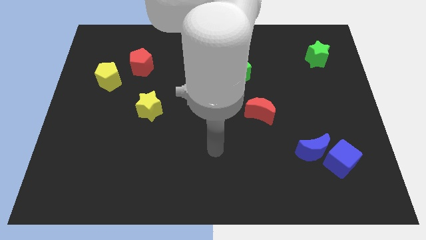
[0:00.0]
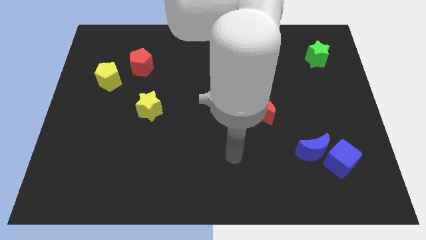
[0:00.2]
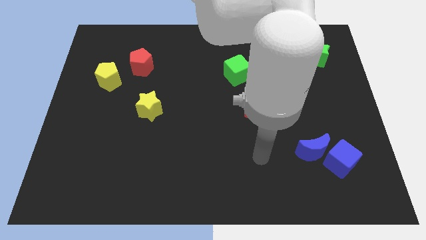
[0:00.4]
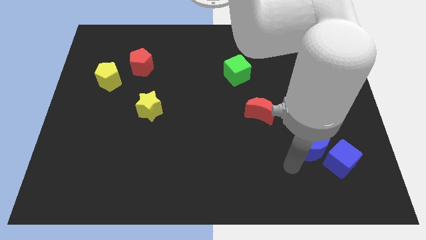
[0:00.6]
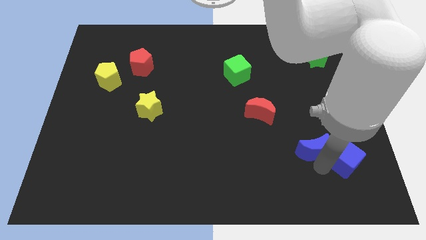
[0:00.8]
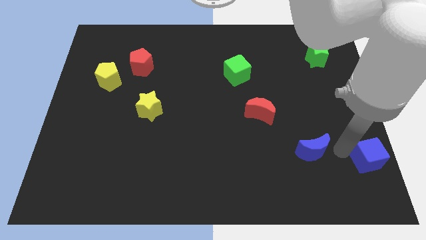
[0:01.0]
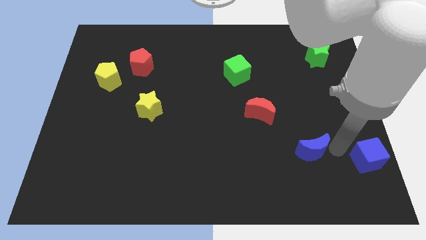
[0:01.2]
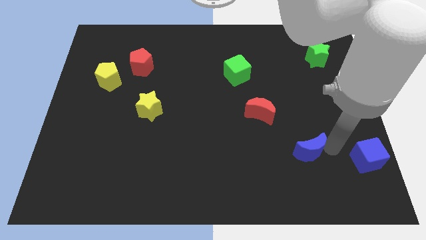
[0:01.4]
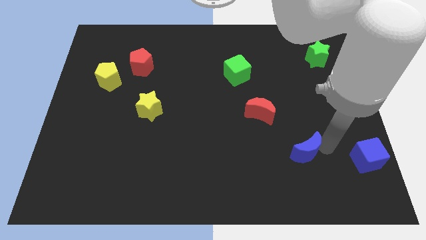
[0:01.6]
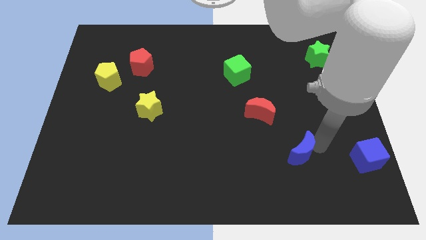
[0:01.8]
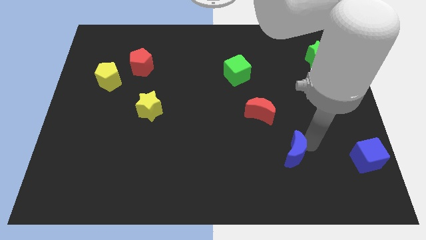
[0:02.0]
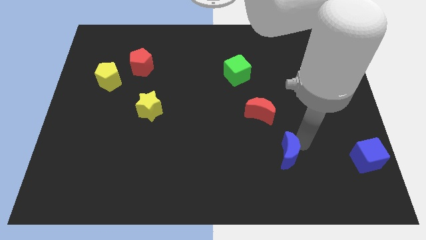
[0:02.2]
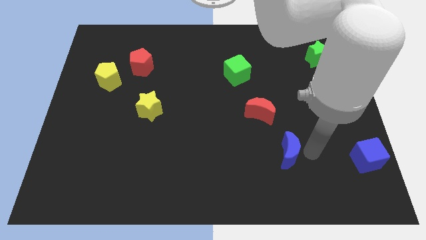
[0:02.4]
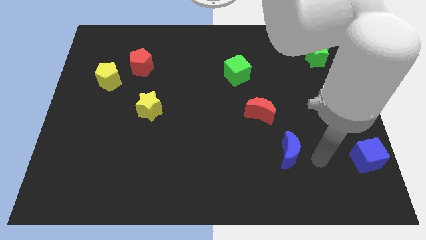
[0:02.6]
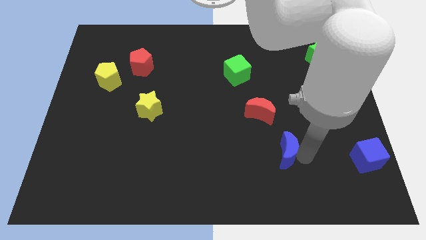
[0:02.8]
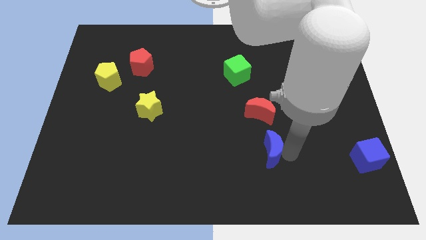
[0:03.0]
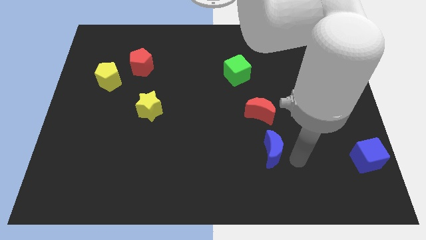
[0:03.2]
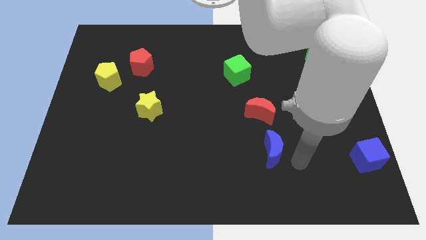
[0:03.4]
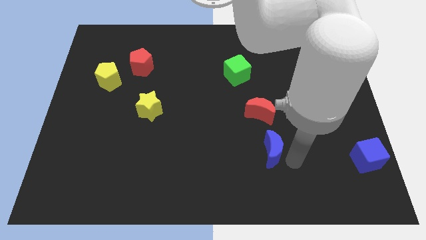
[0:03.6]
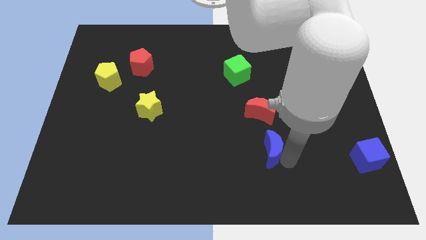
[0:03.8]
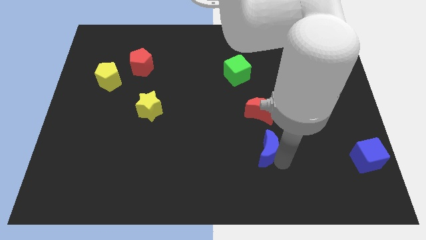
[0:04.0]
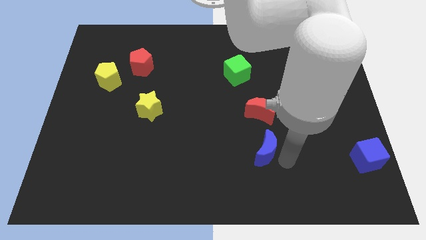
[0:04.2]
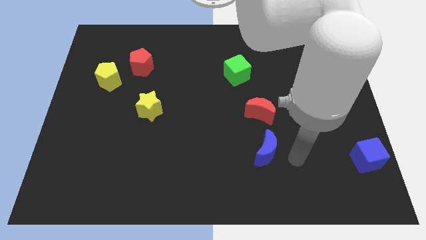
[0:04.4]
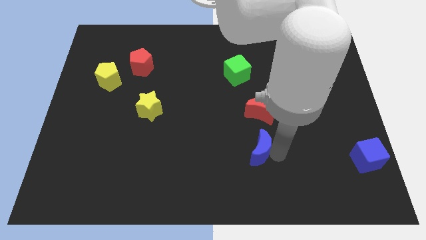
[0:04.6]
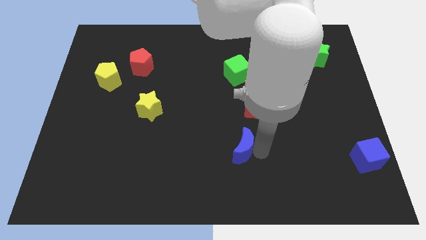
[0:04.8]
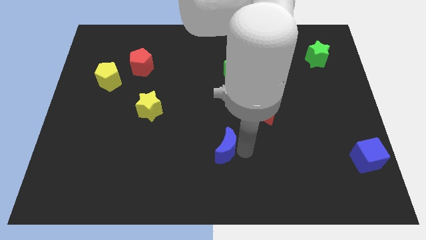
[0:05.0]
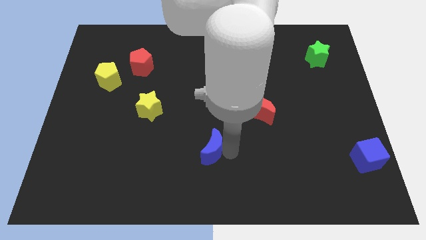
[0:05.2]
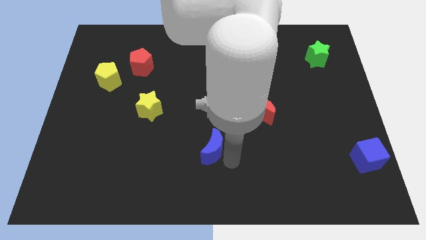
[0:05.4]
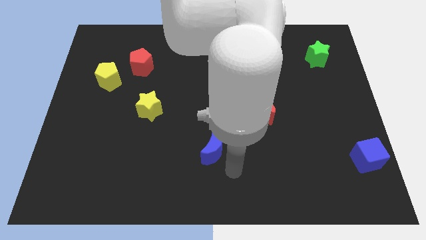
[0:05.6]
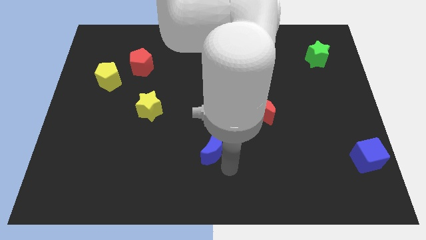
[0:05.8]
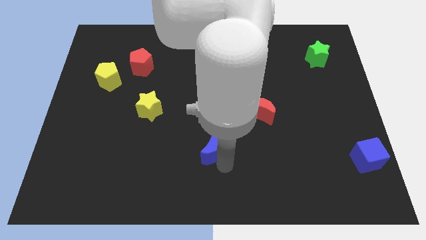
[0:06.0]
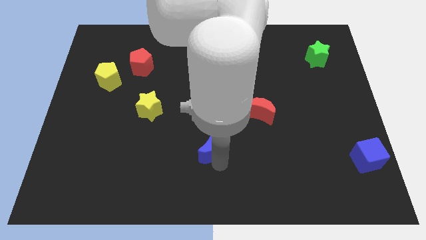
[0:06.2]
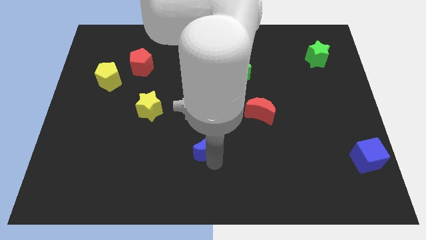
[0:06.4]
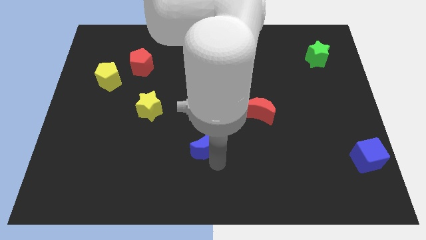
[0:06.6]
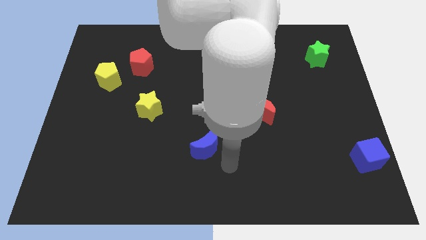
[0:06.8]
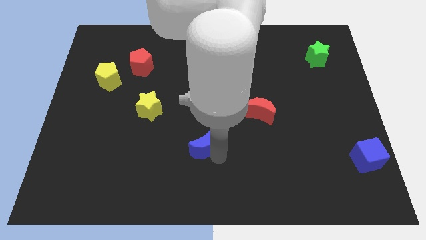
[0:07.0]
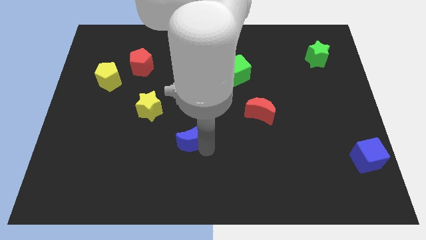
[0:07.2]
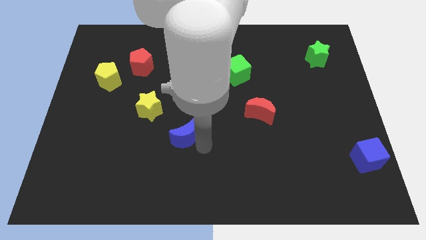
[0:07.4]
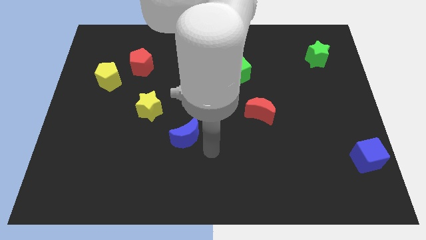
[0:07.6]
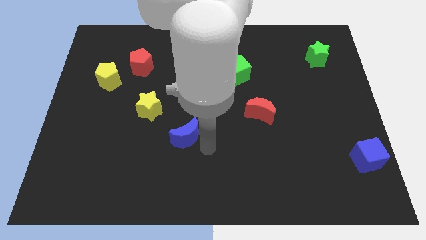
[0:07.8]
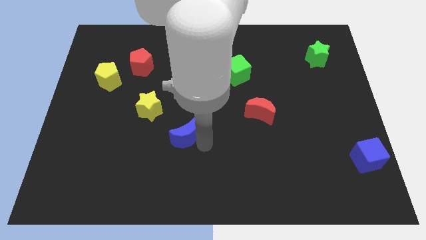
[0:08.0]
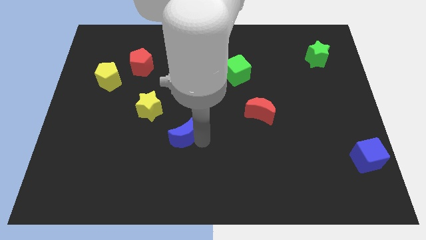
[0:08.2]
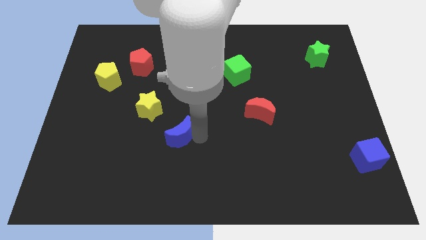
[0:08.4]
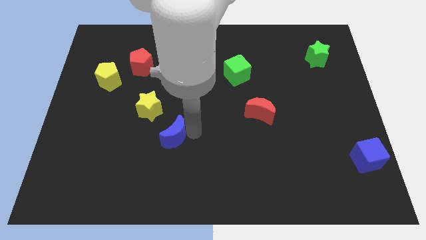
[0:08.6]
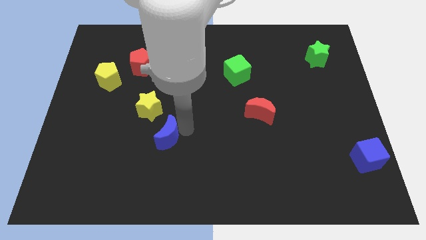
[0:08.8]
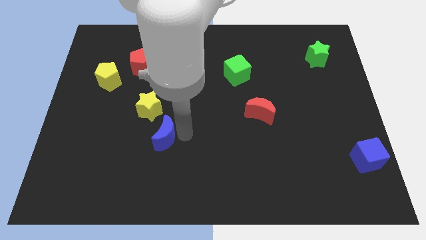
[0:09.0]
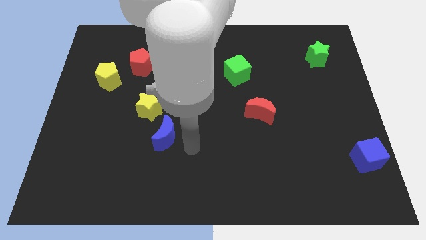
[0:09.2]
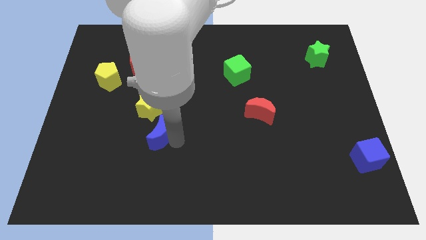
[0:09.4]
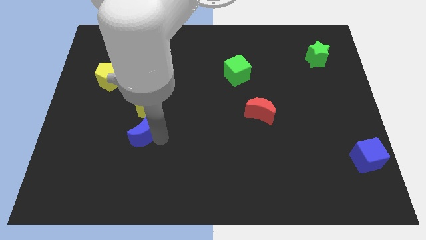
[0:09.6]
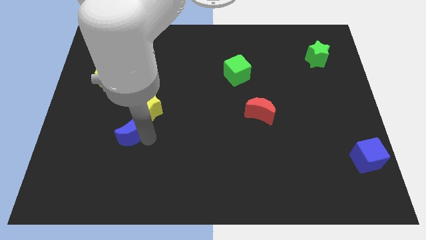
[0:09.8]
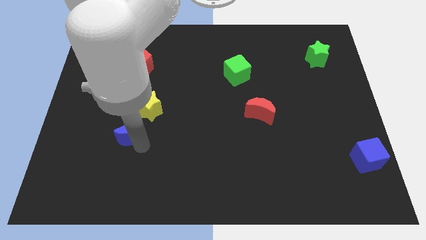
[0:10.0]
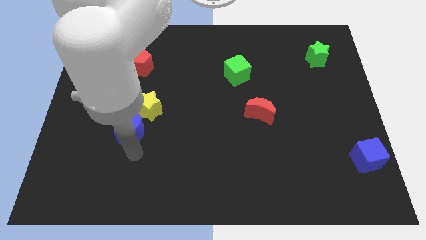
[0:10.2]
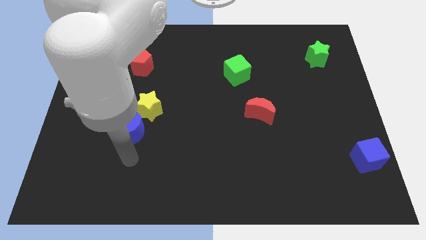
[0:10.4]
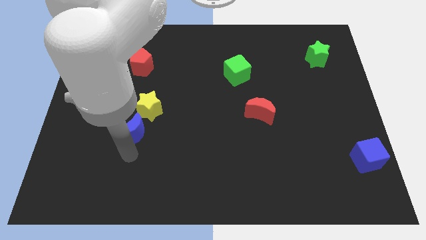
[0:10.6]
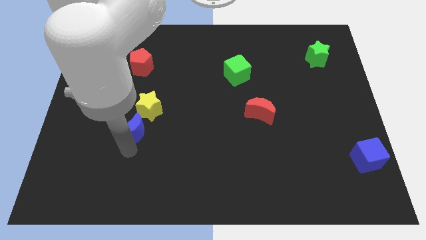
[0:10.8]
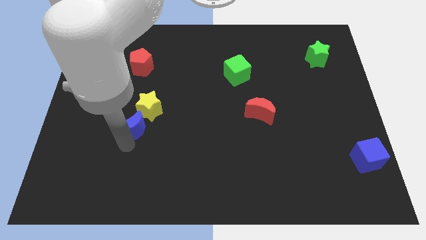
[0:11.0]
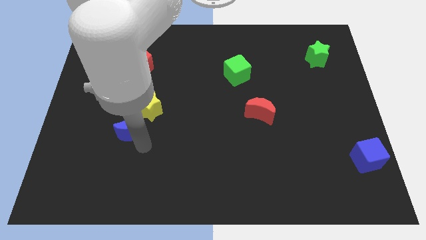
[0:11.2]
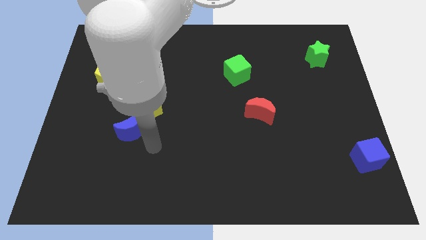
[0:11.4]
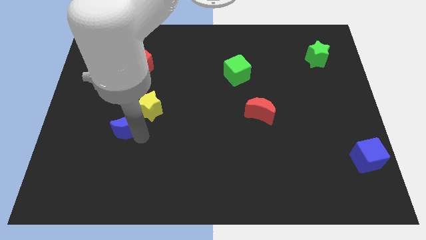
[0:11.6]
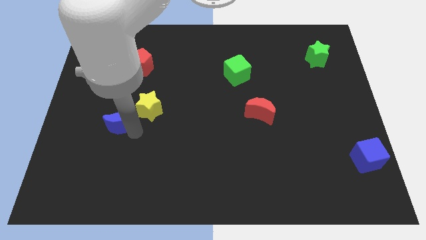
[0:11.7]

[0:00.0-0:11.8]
slide the blue moon to the left of the yellow star

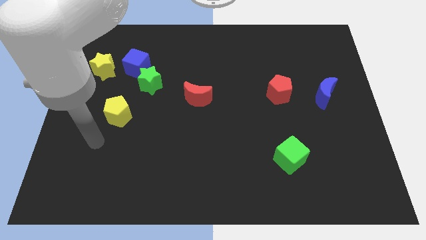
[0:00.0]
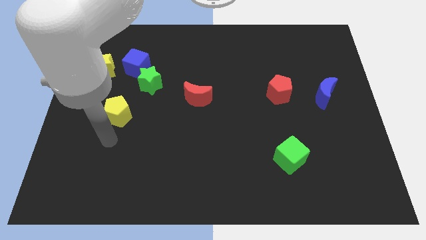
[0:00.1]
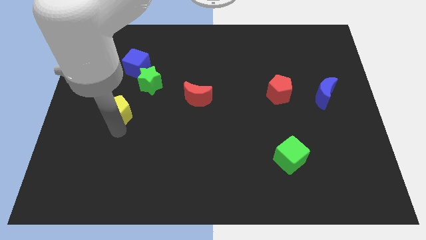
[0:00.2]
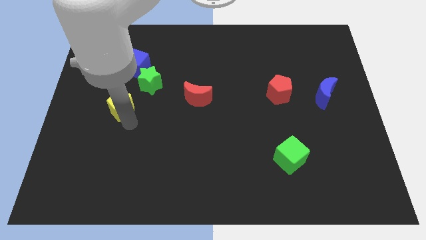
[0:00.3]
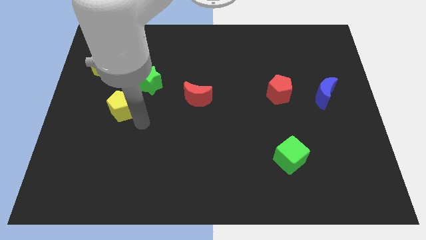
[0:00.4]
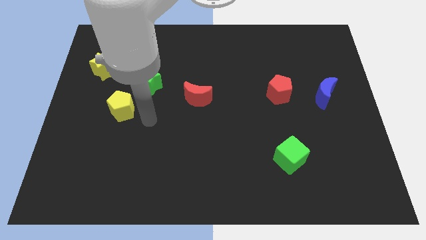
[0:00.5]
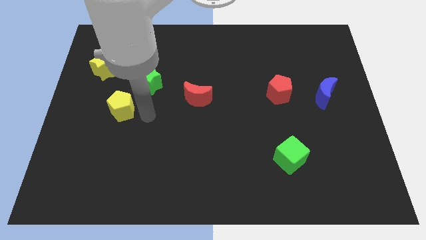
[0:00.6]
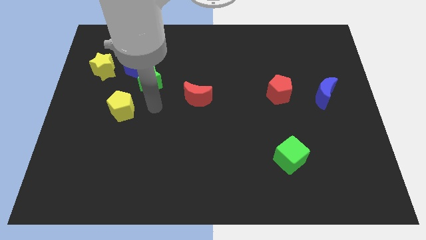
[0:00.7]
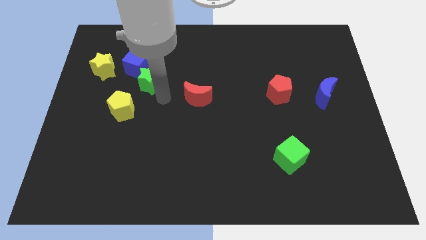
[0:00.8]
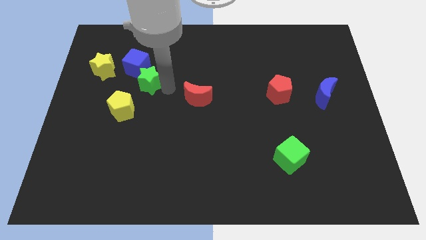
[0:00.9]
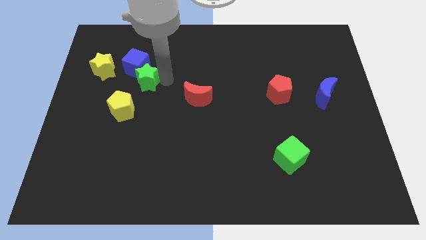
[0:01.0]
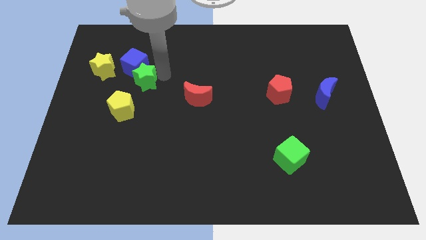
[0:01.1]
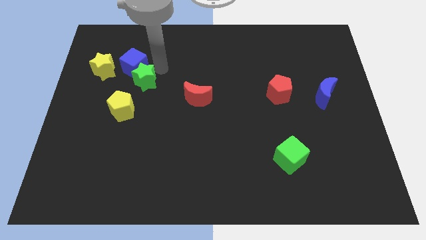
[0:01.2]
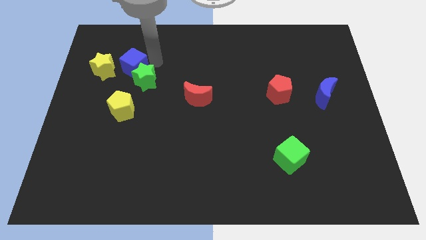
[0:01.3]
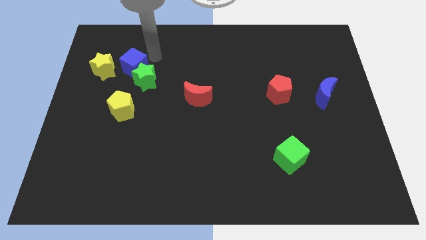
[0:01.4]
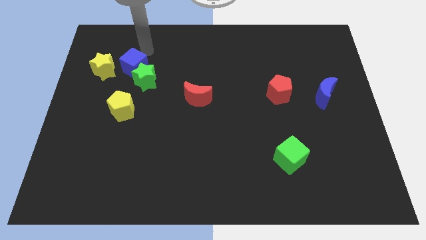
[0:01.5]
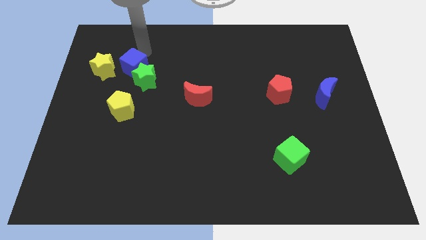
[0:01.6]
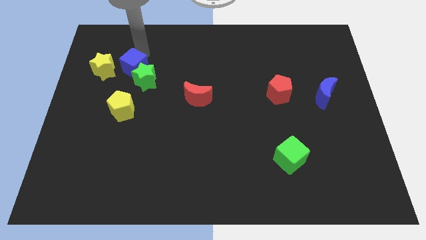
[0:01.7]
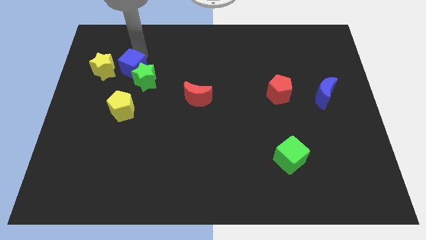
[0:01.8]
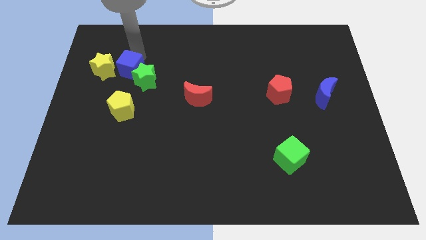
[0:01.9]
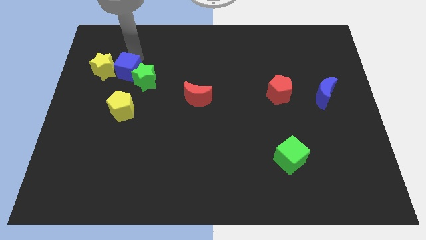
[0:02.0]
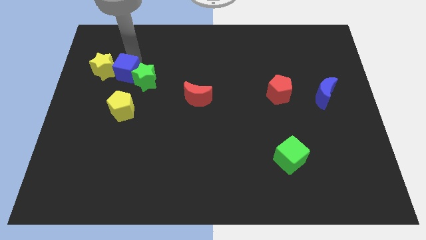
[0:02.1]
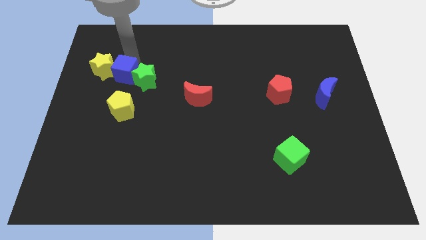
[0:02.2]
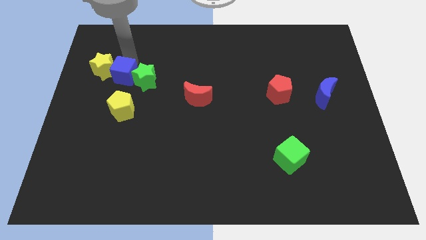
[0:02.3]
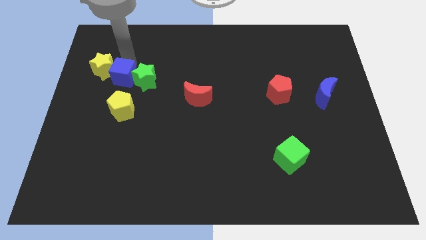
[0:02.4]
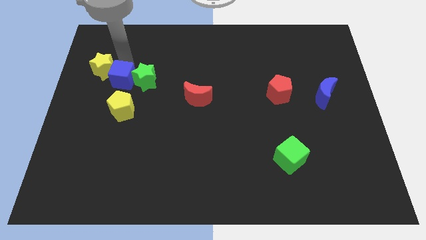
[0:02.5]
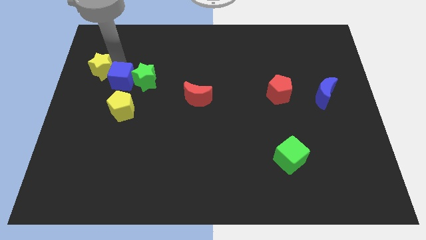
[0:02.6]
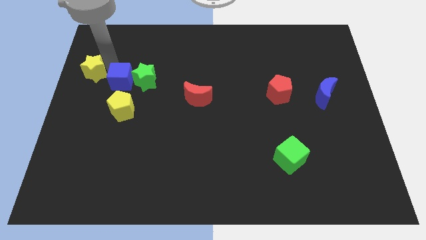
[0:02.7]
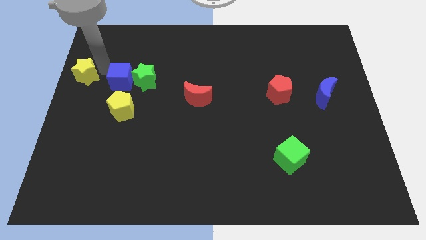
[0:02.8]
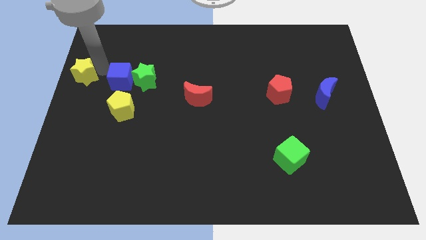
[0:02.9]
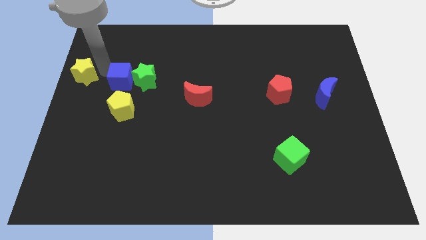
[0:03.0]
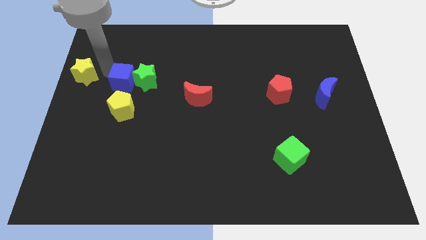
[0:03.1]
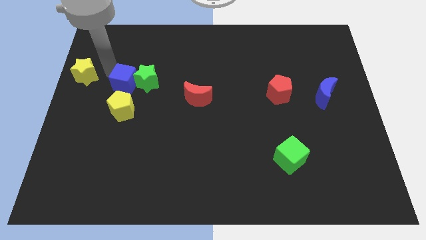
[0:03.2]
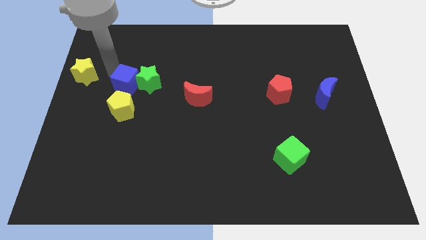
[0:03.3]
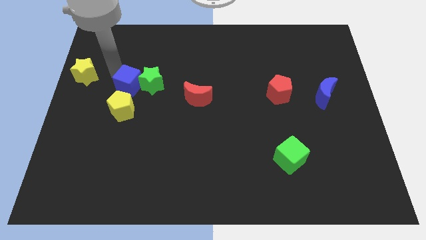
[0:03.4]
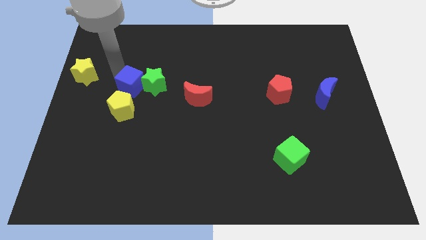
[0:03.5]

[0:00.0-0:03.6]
slide the blue cube to the top right side of the yellow pentagon
